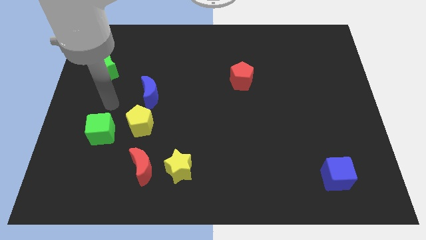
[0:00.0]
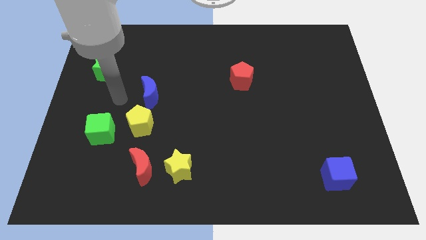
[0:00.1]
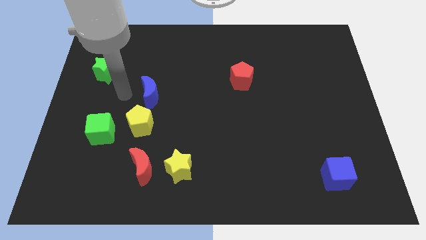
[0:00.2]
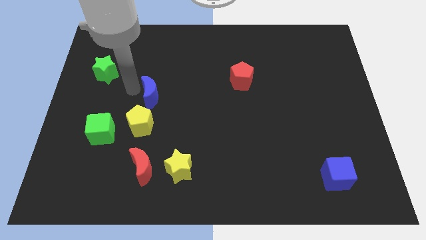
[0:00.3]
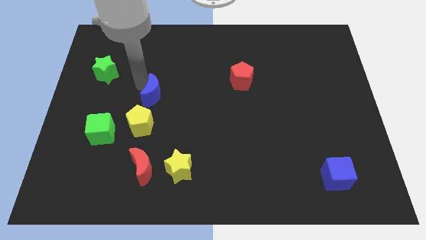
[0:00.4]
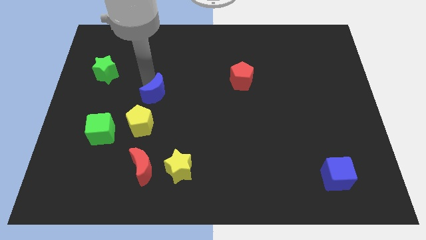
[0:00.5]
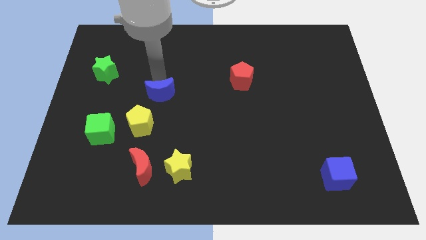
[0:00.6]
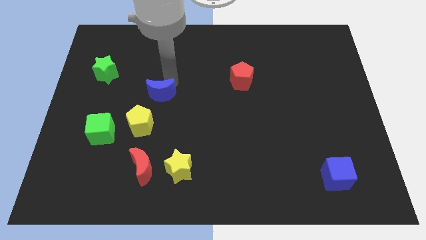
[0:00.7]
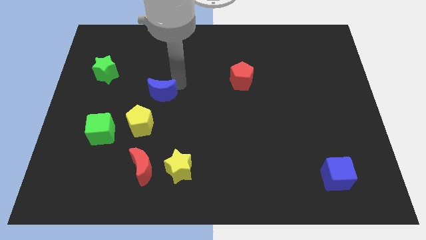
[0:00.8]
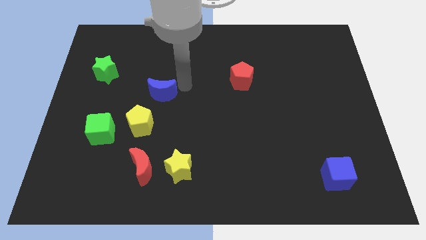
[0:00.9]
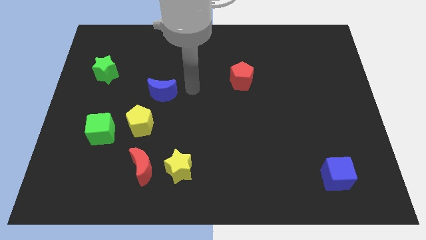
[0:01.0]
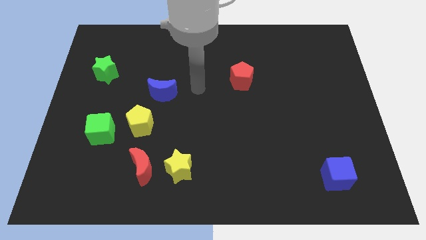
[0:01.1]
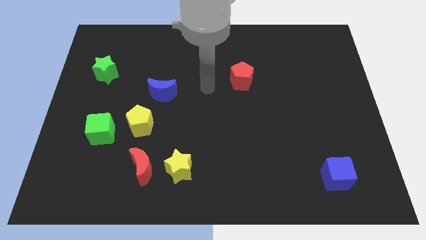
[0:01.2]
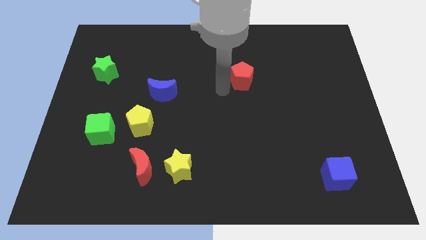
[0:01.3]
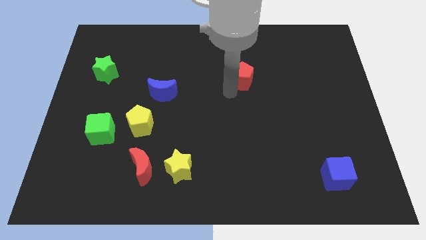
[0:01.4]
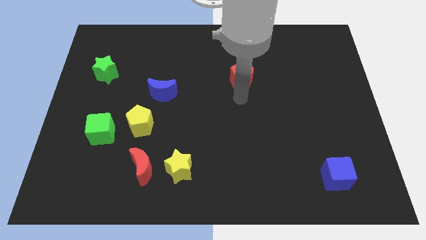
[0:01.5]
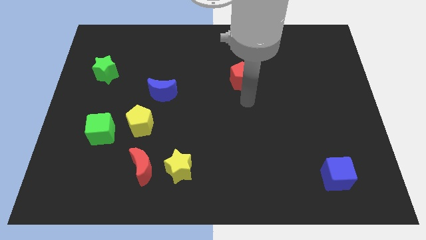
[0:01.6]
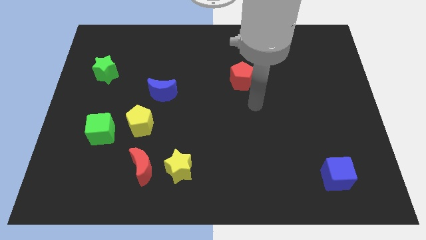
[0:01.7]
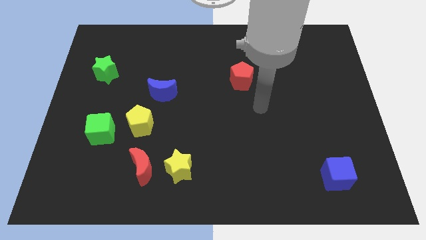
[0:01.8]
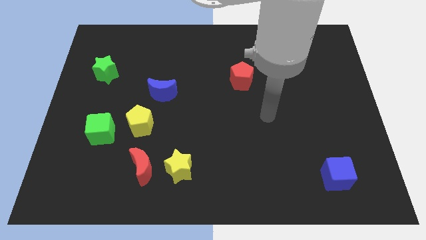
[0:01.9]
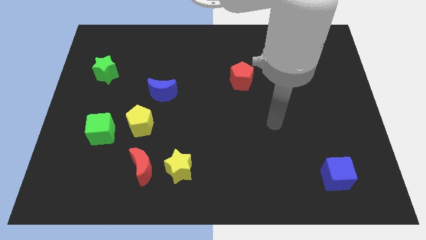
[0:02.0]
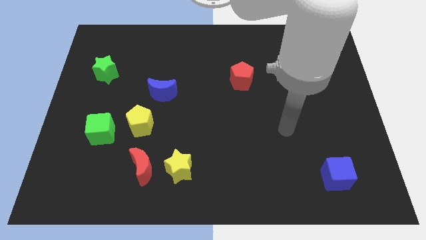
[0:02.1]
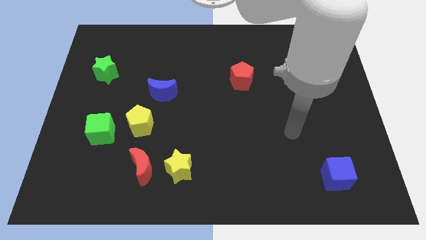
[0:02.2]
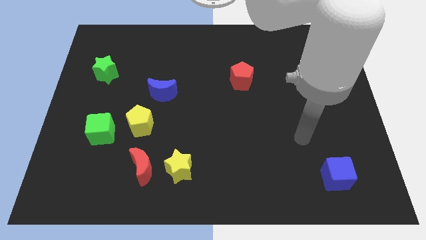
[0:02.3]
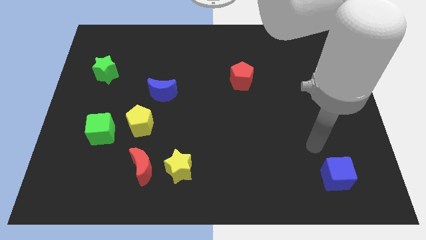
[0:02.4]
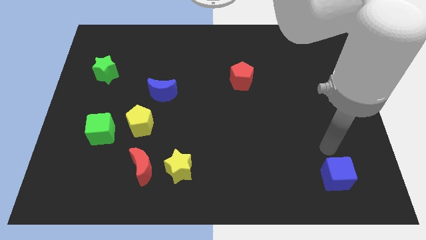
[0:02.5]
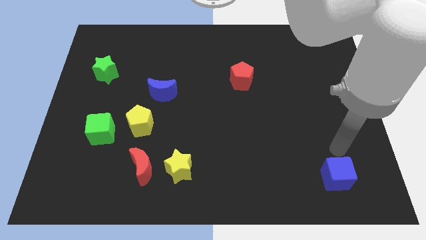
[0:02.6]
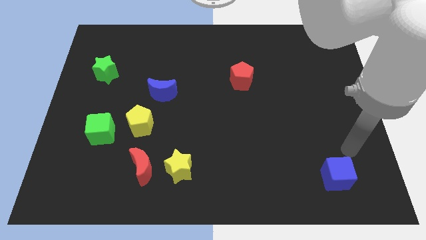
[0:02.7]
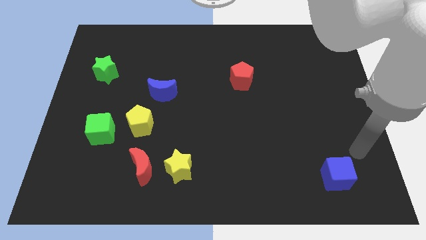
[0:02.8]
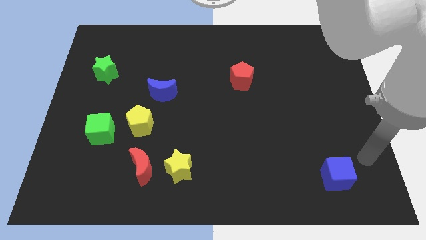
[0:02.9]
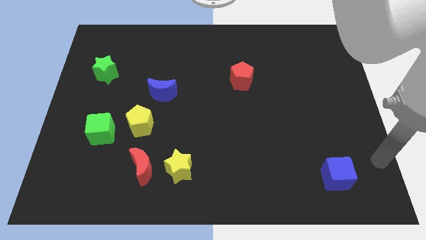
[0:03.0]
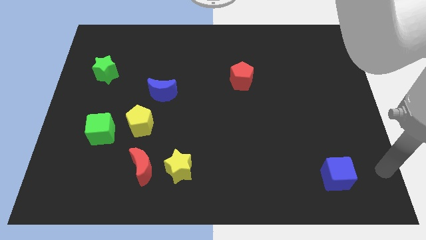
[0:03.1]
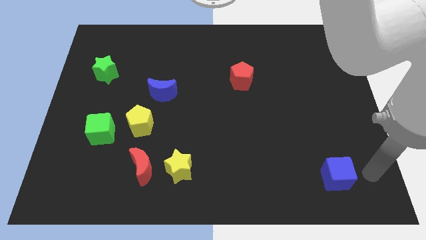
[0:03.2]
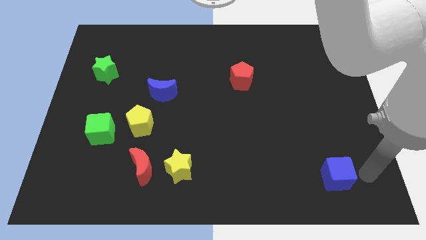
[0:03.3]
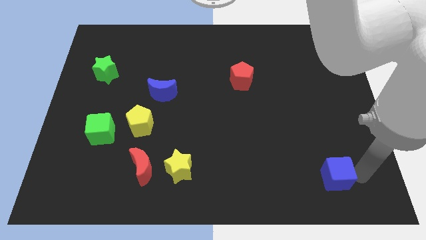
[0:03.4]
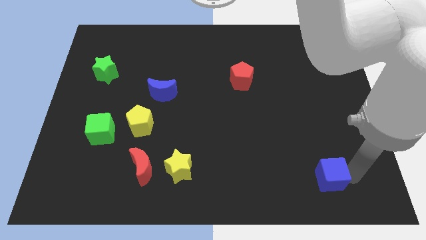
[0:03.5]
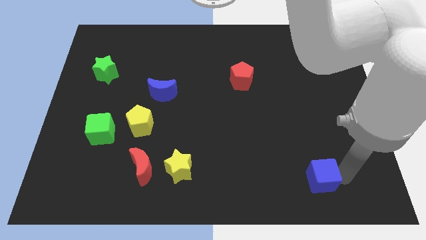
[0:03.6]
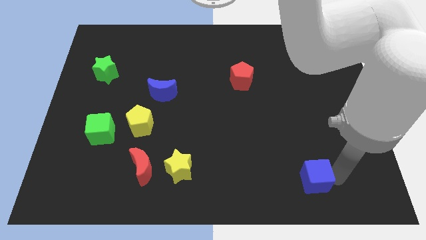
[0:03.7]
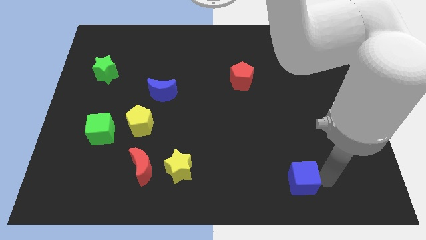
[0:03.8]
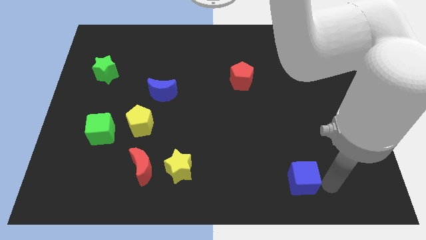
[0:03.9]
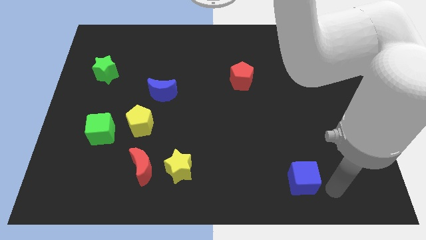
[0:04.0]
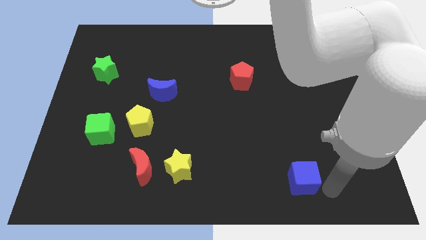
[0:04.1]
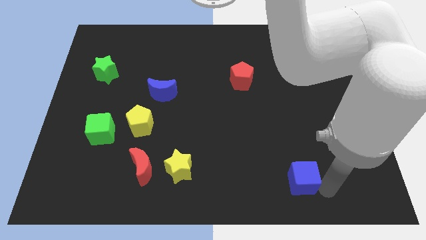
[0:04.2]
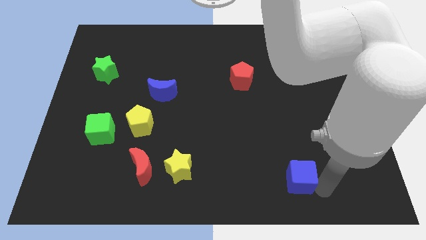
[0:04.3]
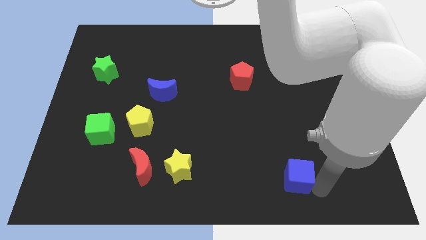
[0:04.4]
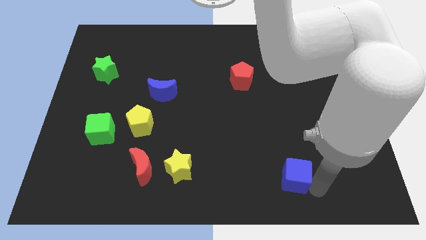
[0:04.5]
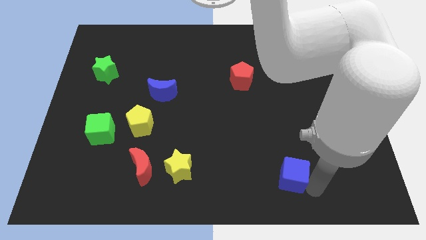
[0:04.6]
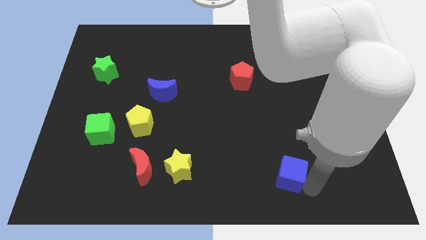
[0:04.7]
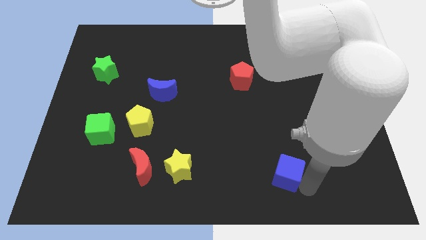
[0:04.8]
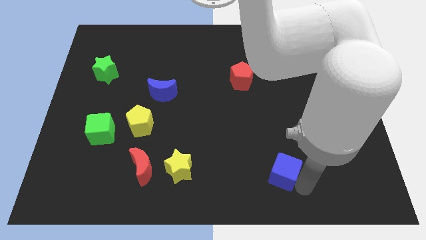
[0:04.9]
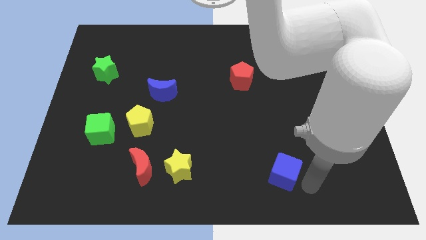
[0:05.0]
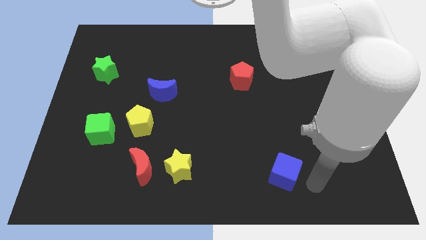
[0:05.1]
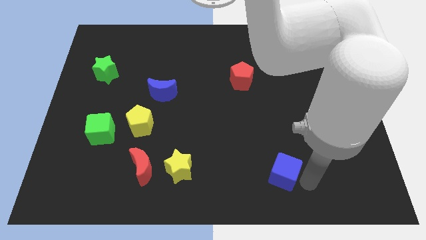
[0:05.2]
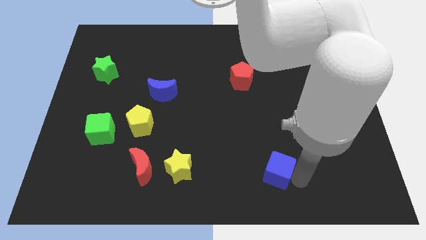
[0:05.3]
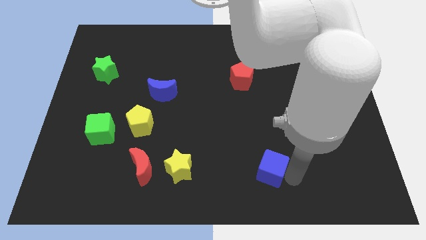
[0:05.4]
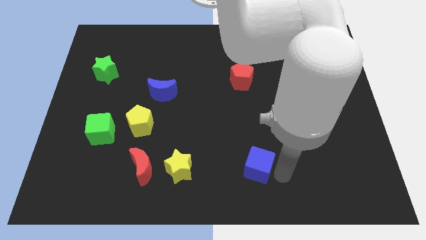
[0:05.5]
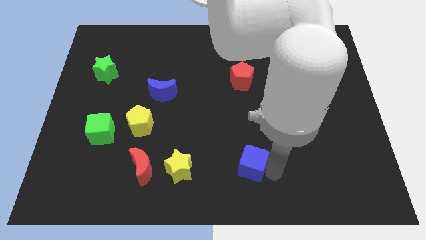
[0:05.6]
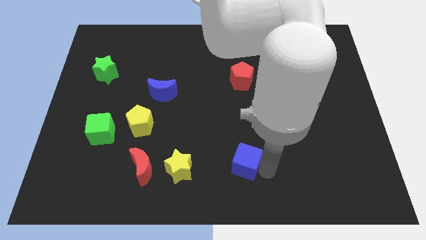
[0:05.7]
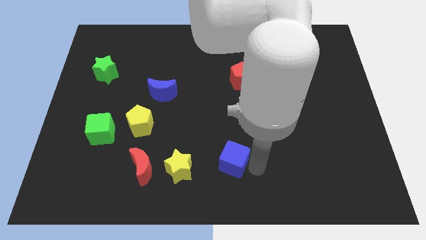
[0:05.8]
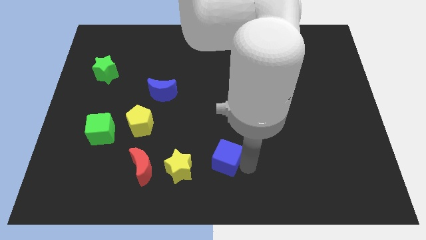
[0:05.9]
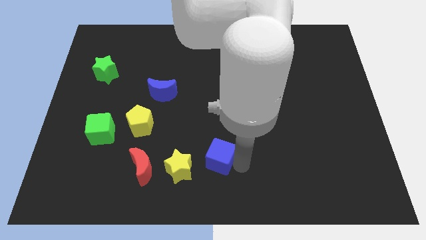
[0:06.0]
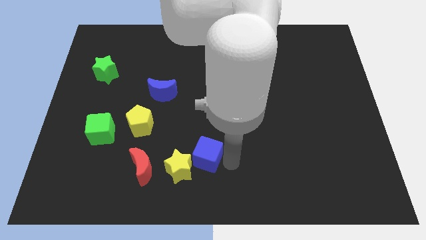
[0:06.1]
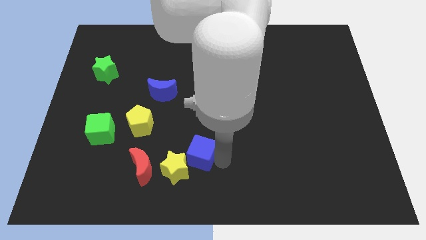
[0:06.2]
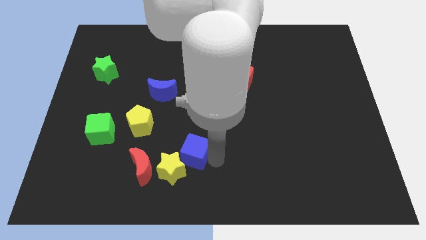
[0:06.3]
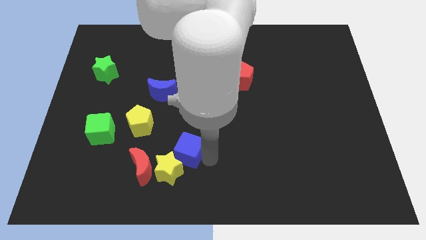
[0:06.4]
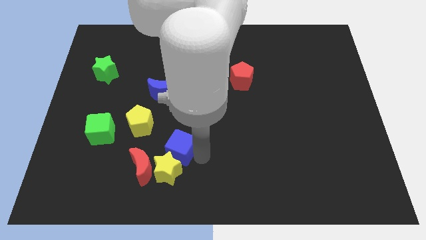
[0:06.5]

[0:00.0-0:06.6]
put the blue cube to the bottom right side of the yellow pentagon

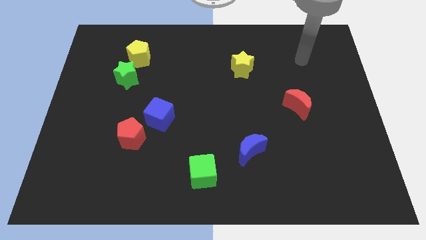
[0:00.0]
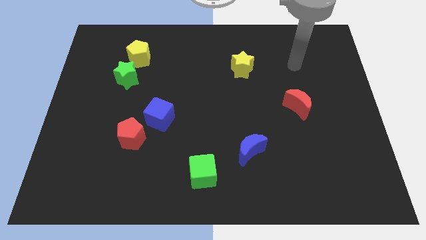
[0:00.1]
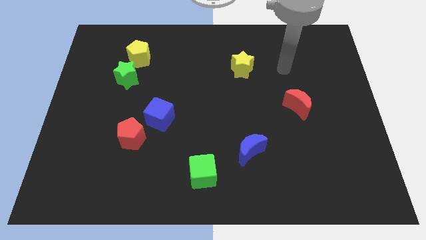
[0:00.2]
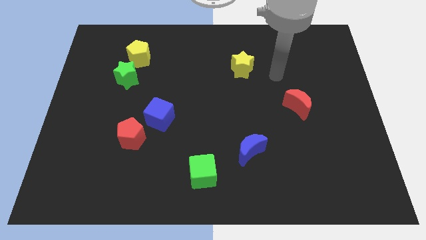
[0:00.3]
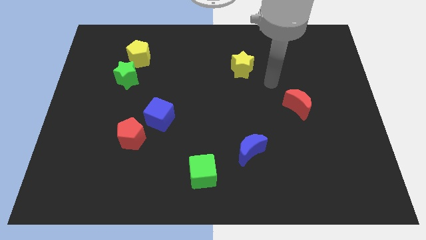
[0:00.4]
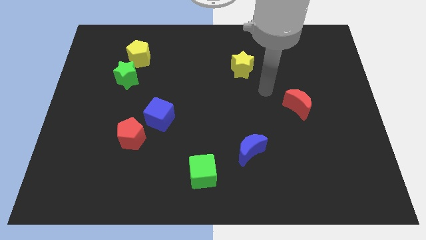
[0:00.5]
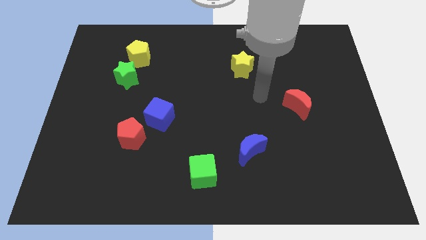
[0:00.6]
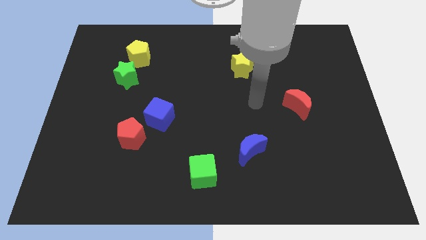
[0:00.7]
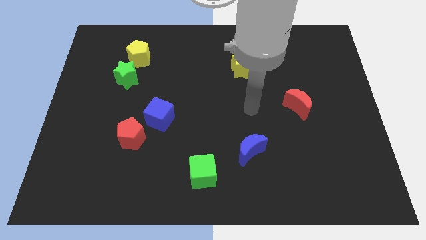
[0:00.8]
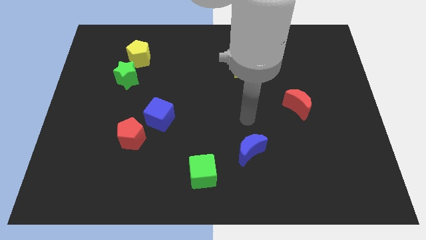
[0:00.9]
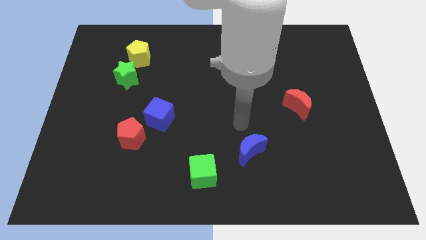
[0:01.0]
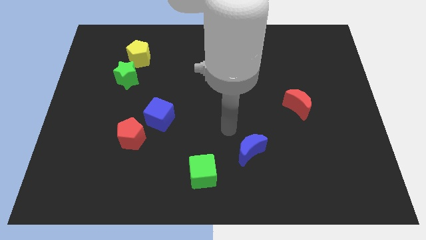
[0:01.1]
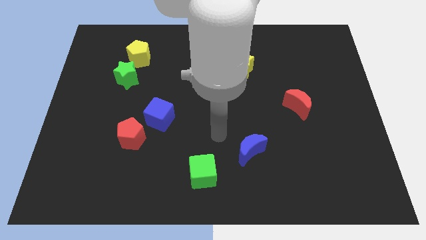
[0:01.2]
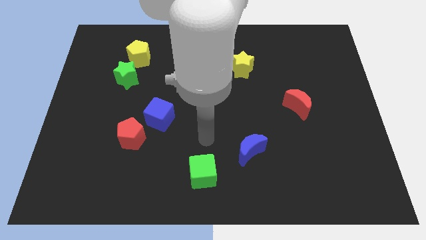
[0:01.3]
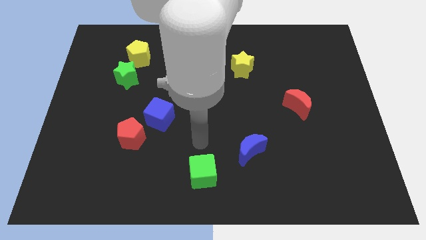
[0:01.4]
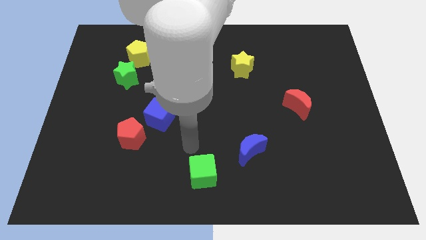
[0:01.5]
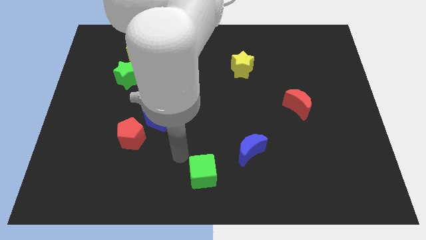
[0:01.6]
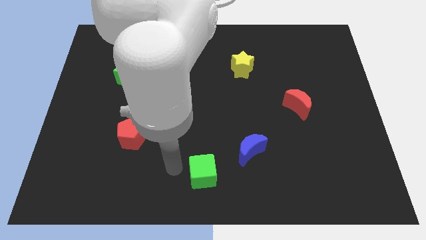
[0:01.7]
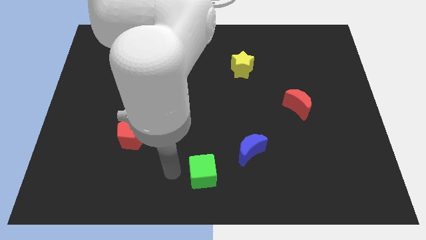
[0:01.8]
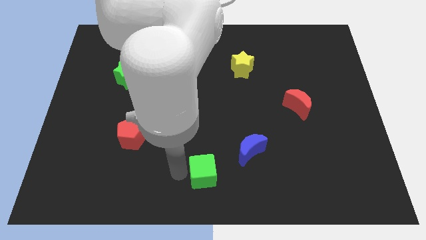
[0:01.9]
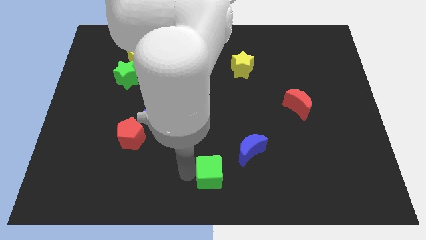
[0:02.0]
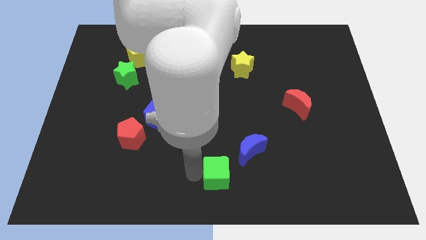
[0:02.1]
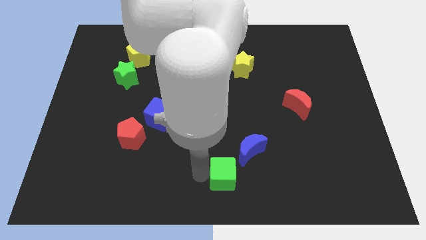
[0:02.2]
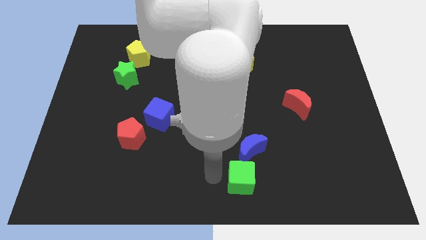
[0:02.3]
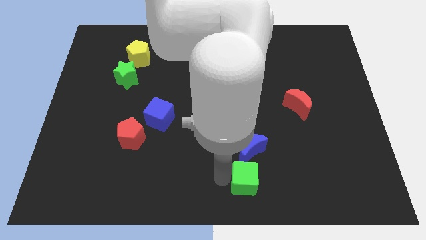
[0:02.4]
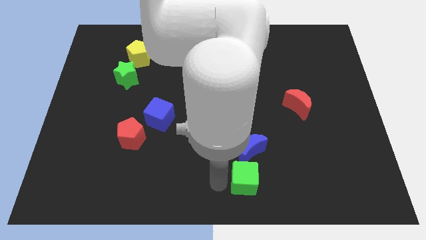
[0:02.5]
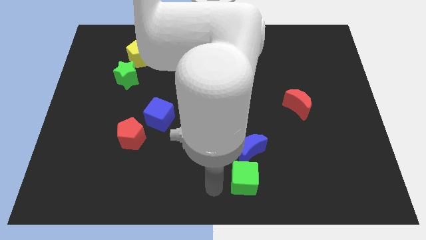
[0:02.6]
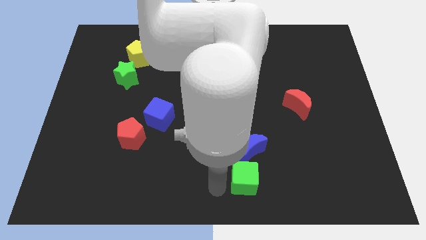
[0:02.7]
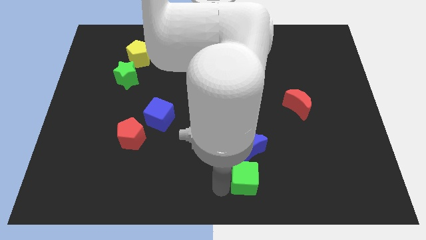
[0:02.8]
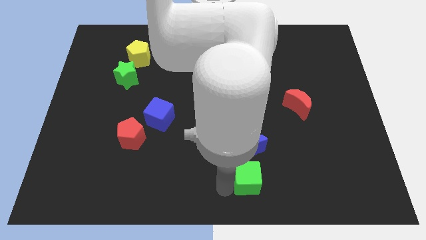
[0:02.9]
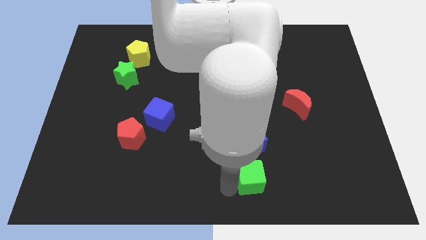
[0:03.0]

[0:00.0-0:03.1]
push the green cube to the bottom right side of the blue moon
